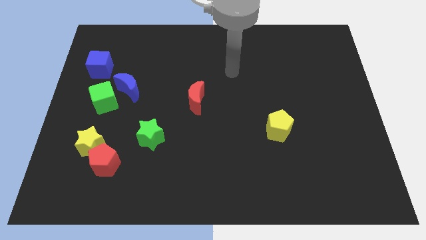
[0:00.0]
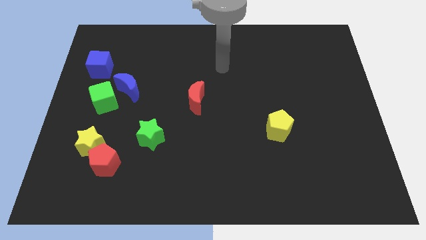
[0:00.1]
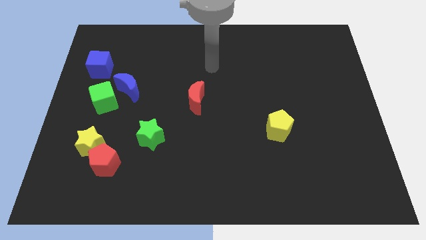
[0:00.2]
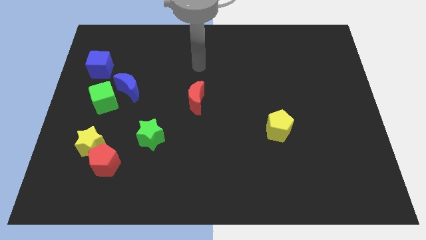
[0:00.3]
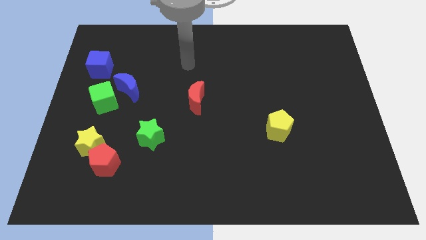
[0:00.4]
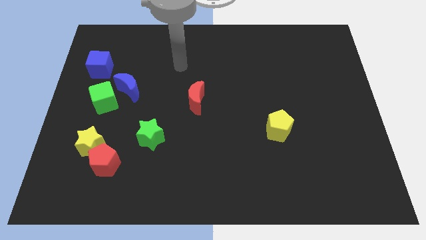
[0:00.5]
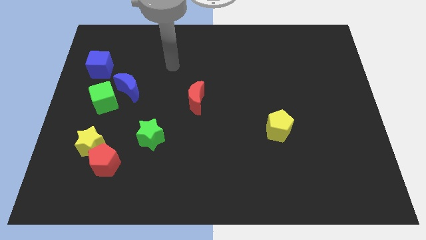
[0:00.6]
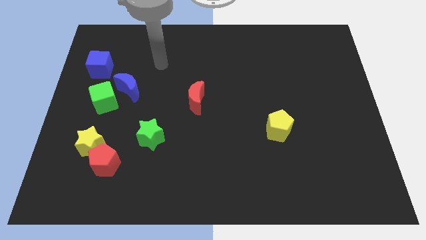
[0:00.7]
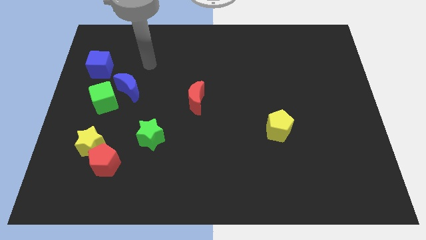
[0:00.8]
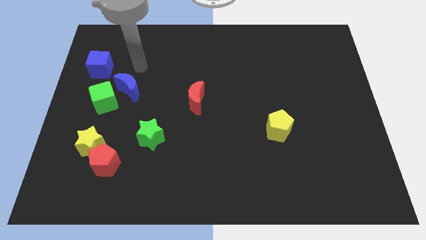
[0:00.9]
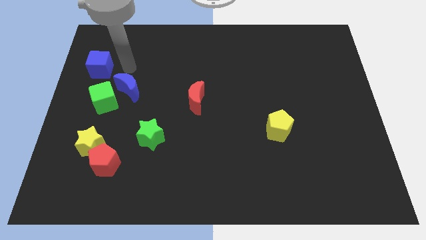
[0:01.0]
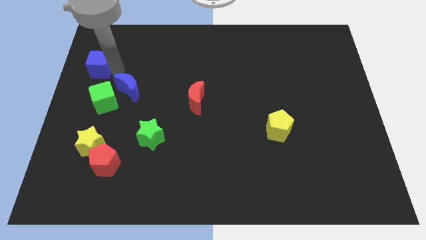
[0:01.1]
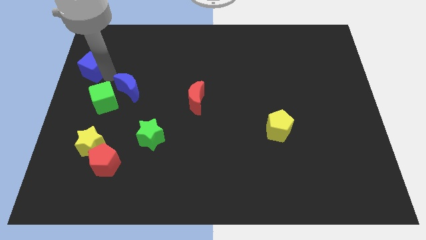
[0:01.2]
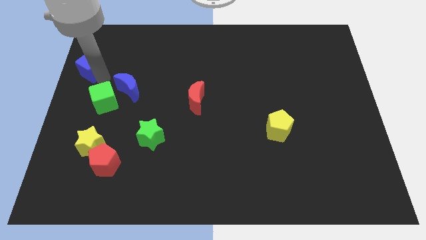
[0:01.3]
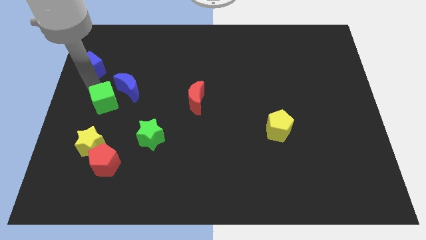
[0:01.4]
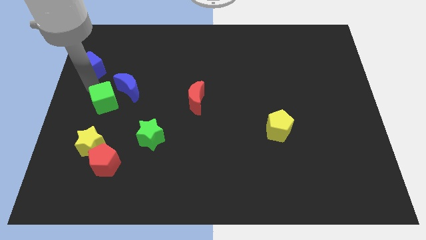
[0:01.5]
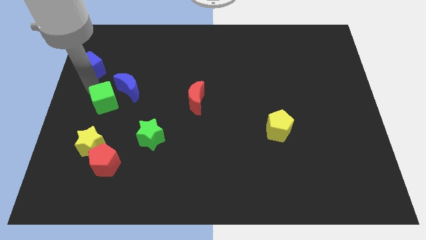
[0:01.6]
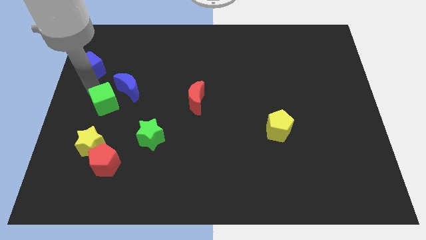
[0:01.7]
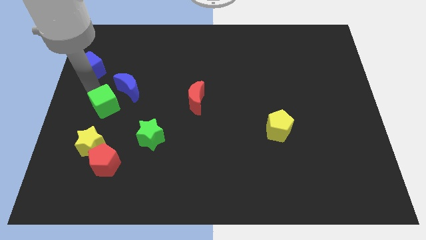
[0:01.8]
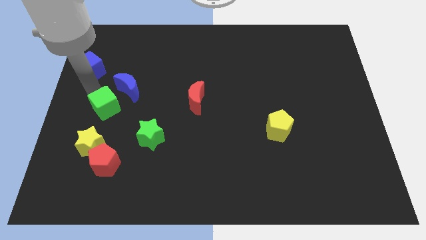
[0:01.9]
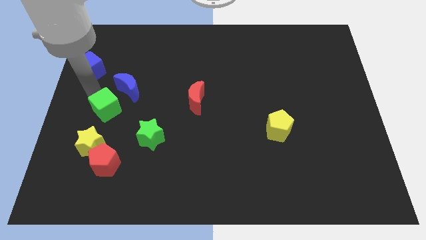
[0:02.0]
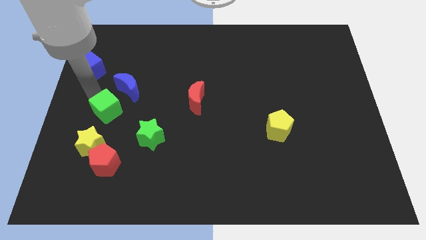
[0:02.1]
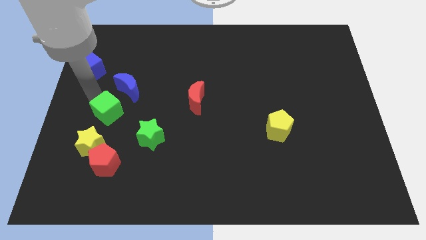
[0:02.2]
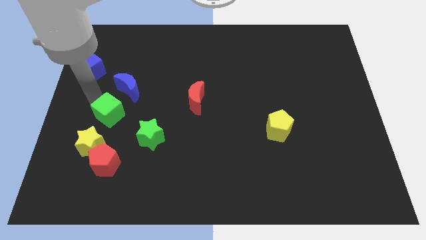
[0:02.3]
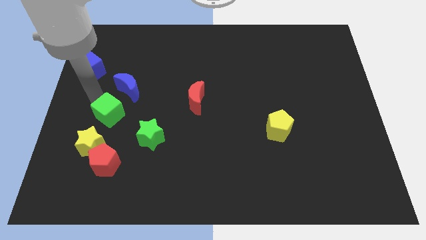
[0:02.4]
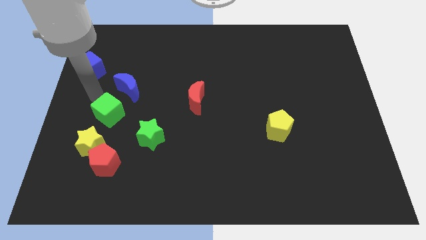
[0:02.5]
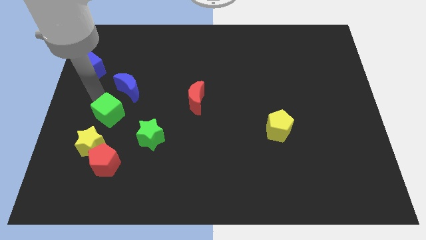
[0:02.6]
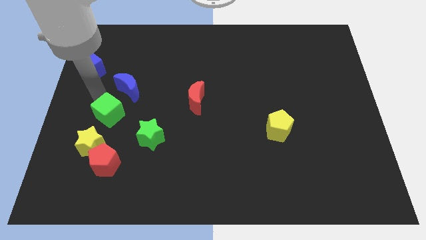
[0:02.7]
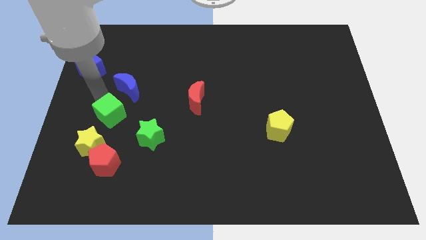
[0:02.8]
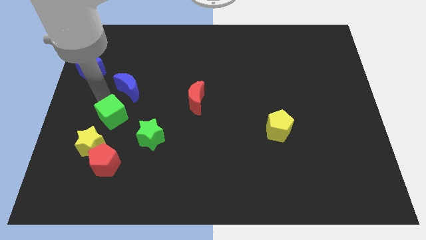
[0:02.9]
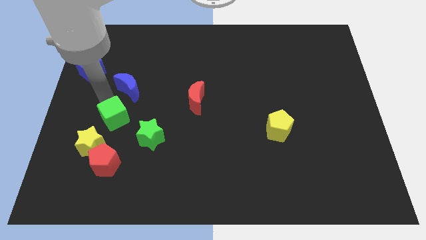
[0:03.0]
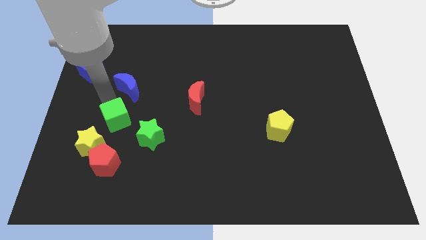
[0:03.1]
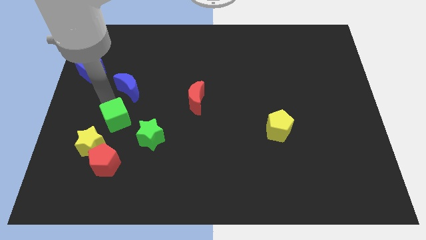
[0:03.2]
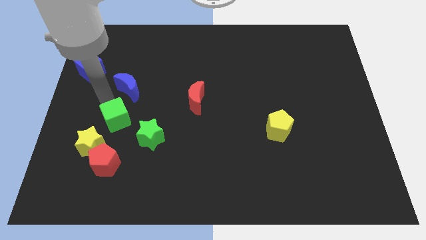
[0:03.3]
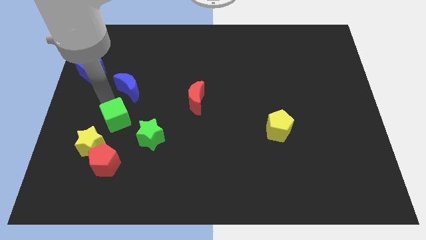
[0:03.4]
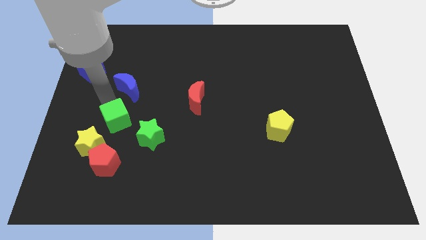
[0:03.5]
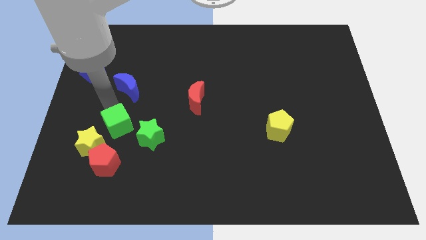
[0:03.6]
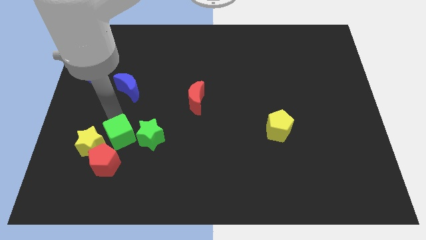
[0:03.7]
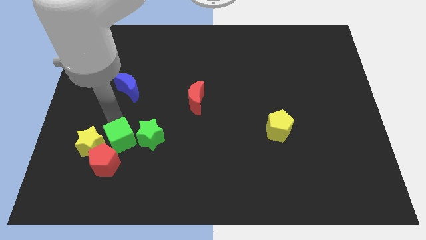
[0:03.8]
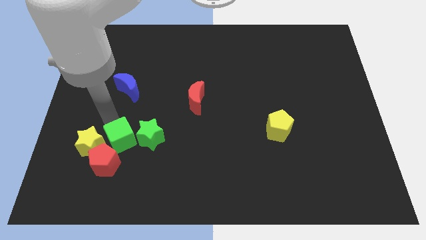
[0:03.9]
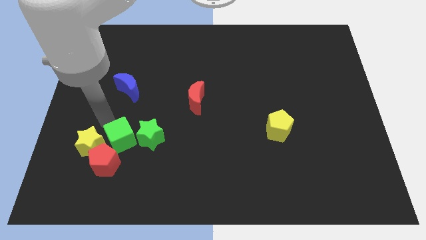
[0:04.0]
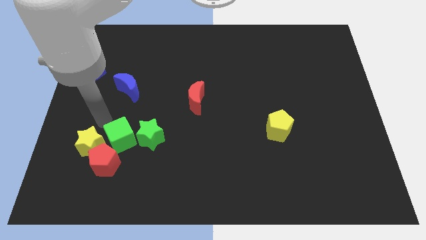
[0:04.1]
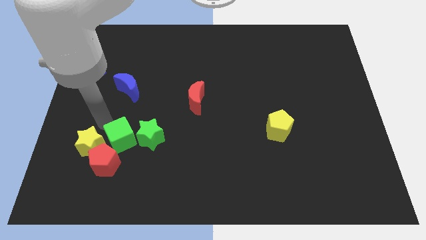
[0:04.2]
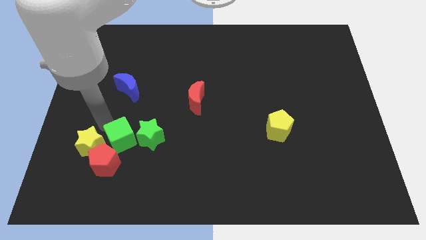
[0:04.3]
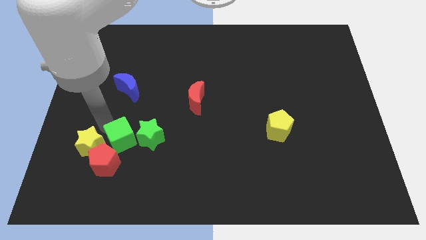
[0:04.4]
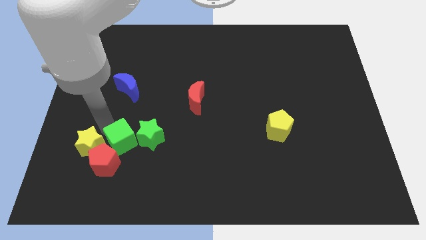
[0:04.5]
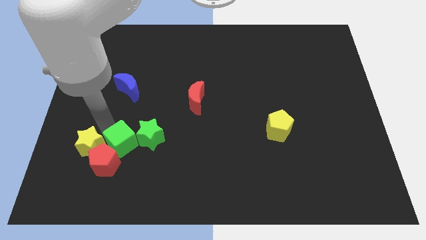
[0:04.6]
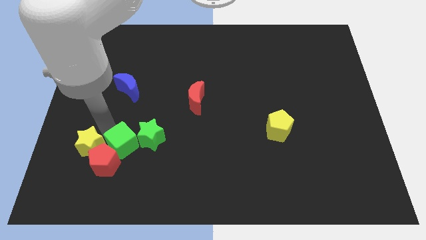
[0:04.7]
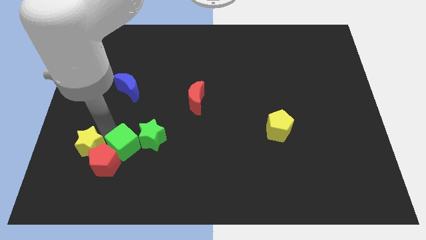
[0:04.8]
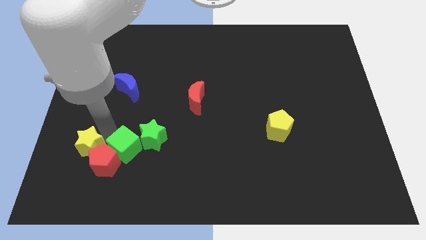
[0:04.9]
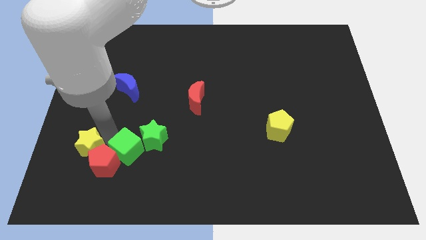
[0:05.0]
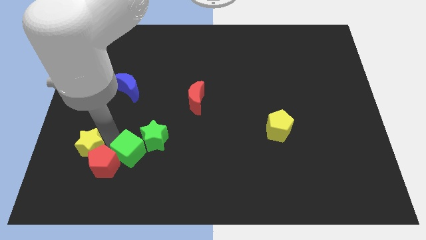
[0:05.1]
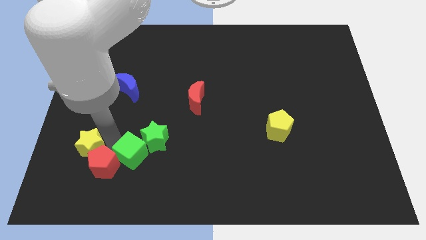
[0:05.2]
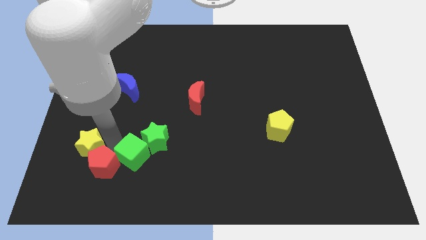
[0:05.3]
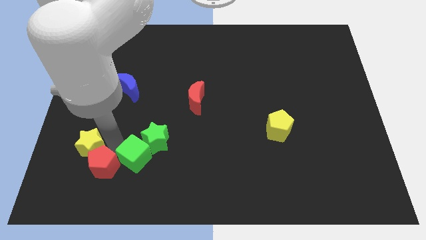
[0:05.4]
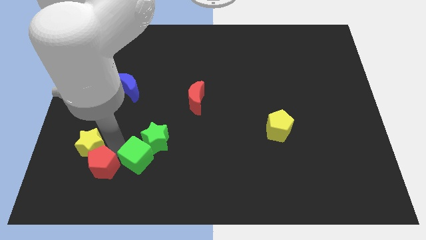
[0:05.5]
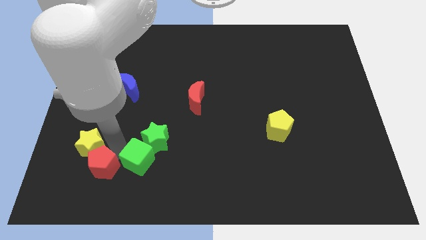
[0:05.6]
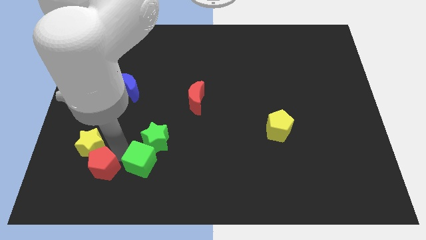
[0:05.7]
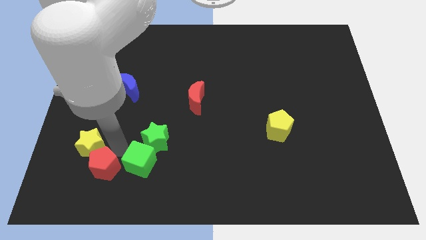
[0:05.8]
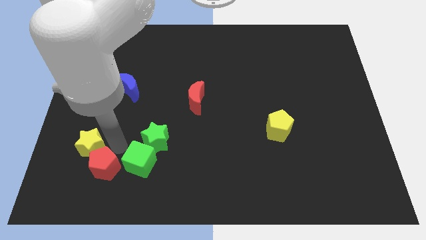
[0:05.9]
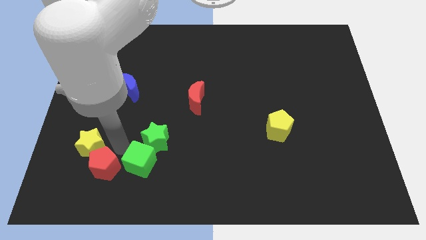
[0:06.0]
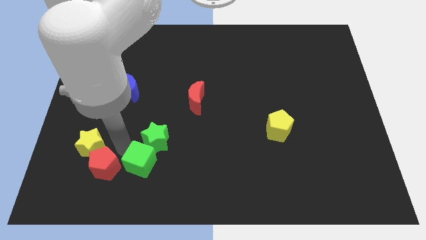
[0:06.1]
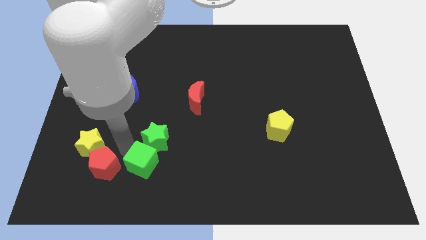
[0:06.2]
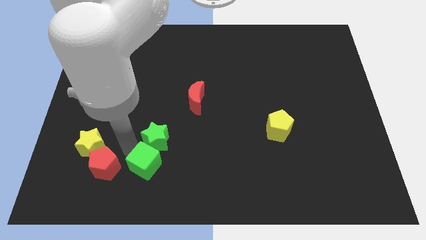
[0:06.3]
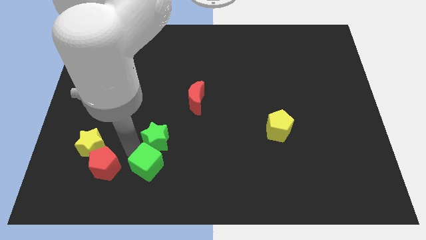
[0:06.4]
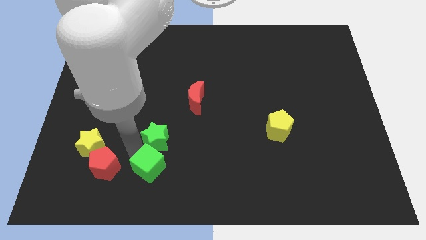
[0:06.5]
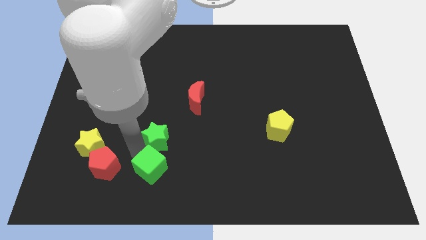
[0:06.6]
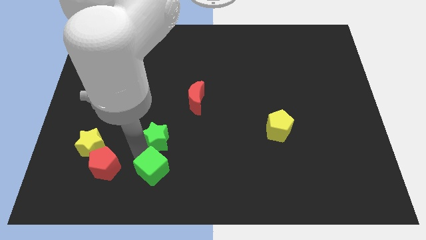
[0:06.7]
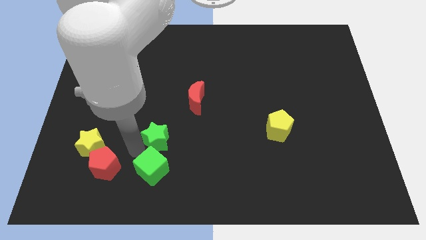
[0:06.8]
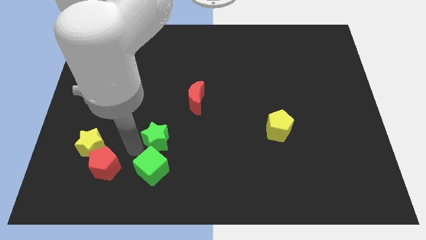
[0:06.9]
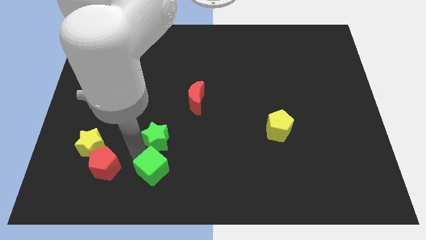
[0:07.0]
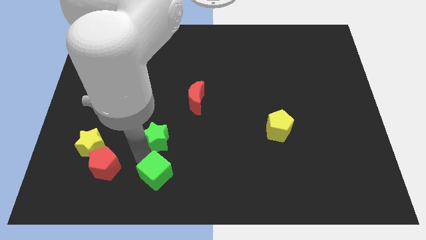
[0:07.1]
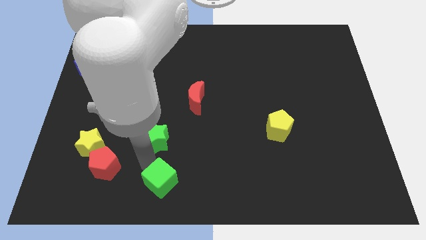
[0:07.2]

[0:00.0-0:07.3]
put the green cube to the bottom
